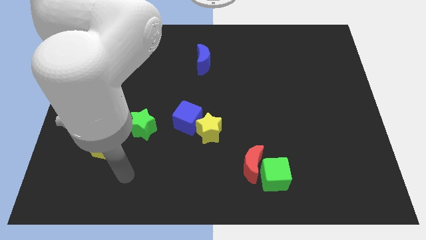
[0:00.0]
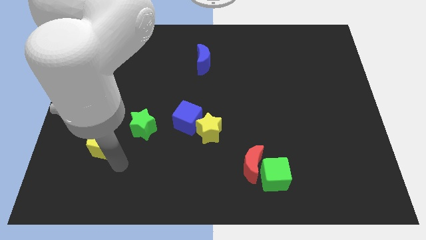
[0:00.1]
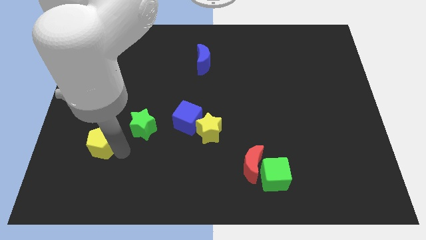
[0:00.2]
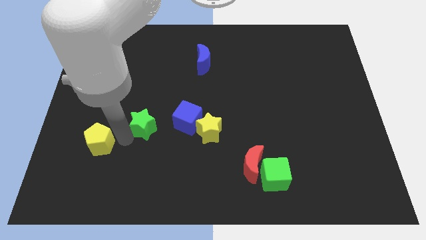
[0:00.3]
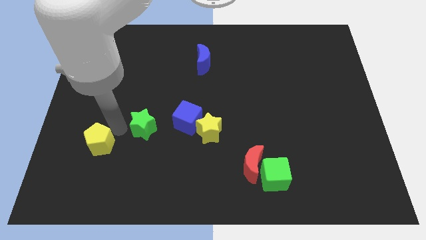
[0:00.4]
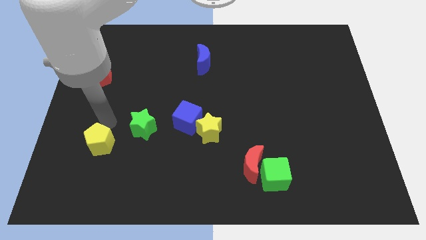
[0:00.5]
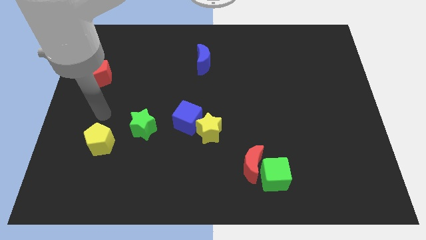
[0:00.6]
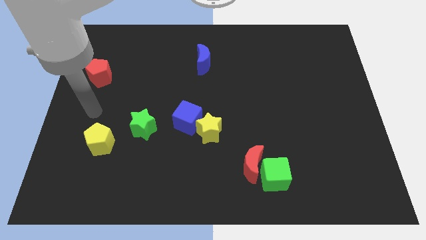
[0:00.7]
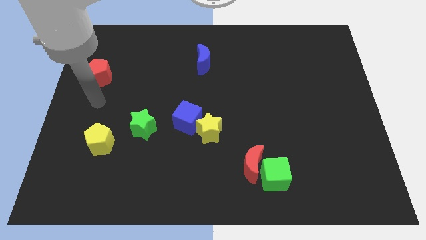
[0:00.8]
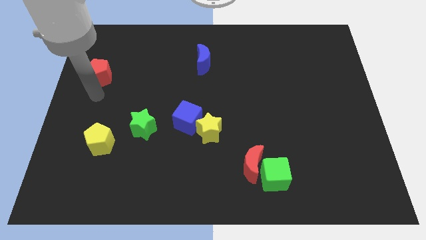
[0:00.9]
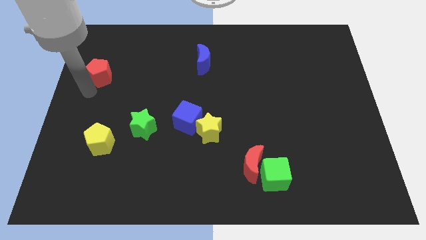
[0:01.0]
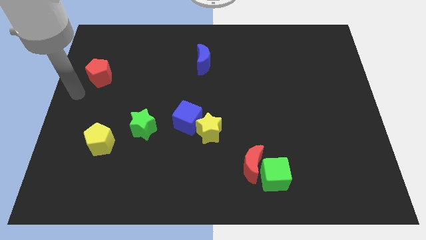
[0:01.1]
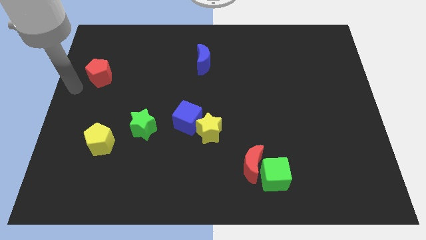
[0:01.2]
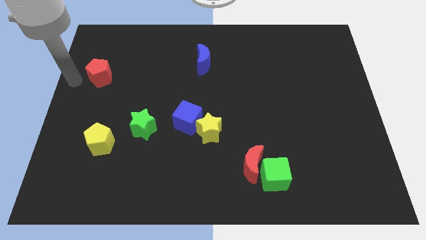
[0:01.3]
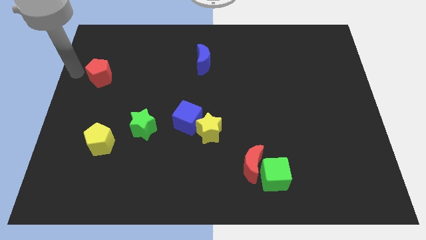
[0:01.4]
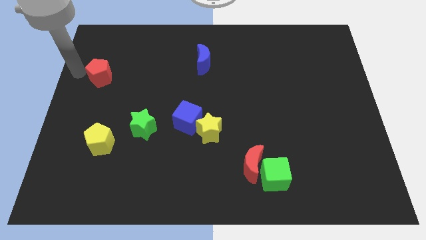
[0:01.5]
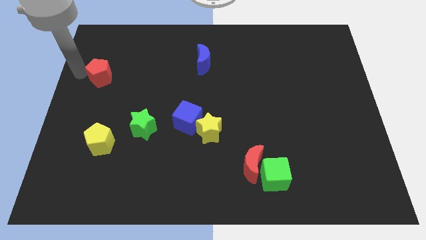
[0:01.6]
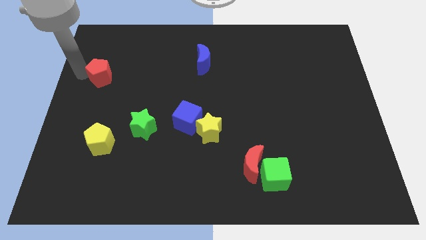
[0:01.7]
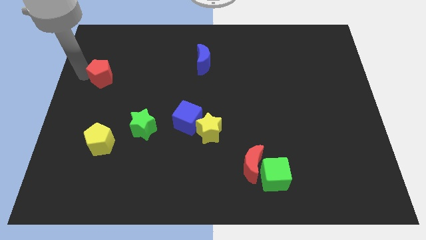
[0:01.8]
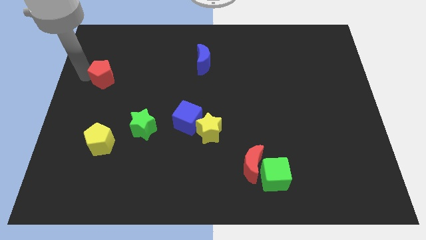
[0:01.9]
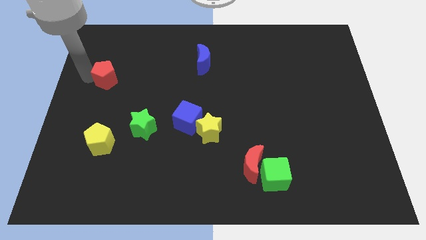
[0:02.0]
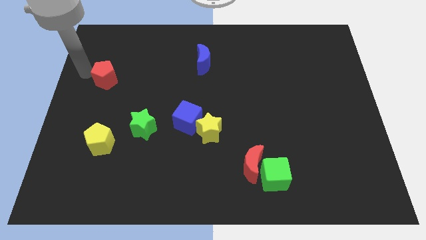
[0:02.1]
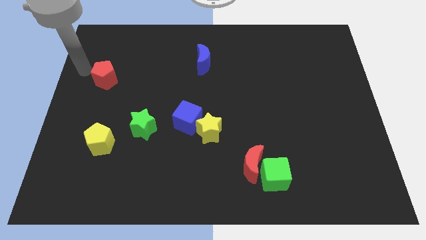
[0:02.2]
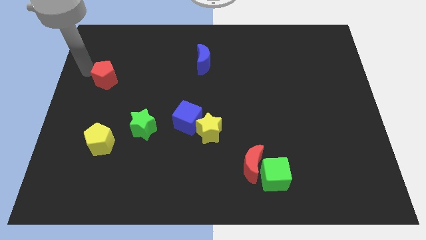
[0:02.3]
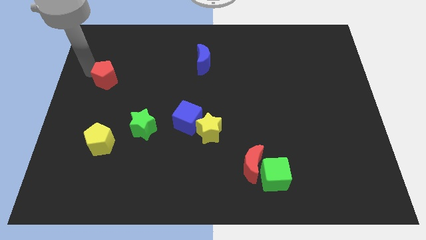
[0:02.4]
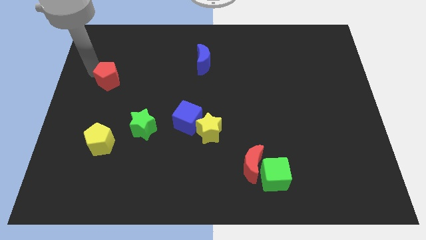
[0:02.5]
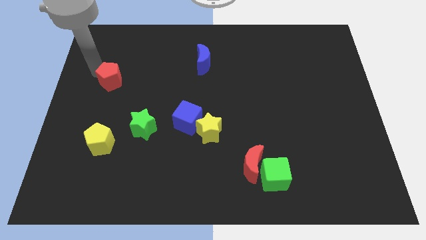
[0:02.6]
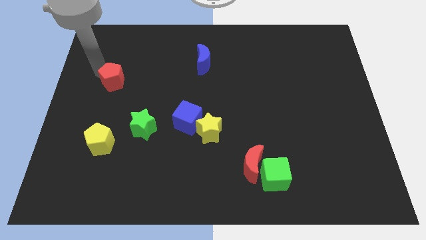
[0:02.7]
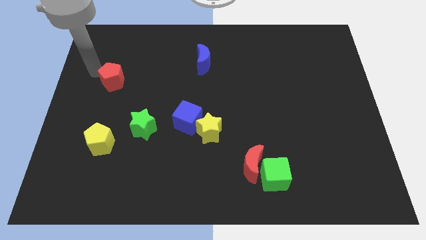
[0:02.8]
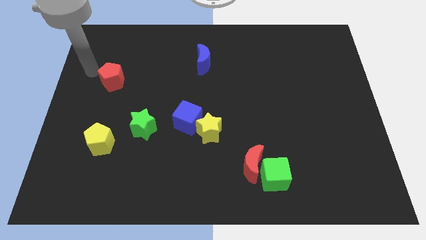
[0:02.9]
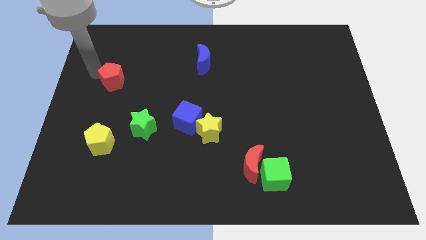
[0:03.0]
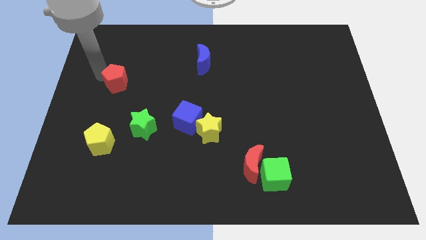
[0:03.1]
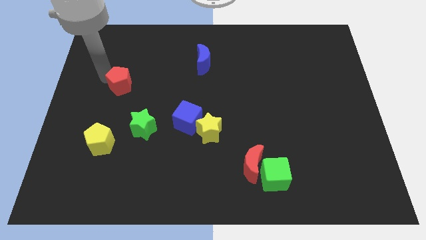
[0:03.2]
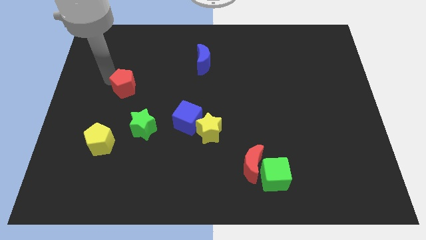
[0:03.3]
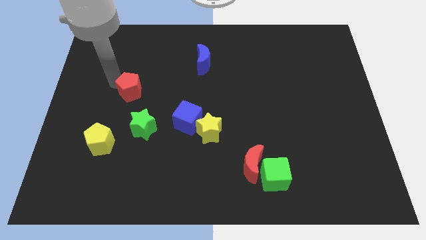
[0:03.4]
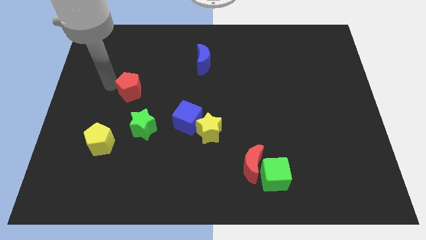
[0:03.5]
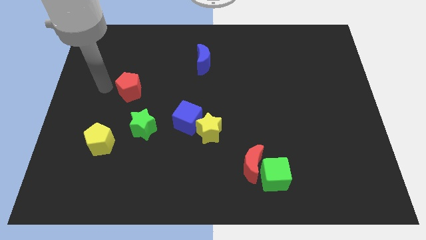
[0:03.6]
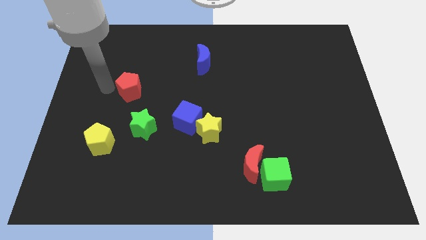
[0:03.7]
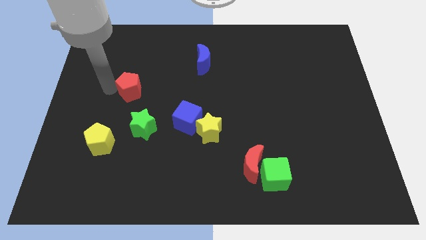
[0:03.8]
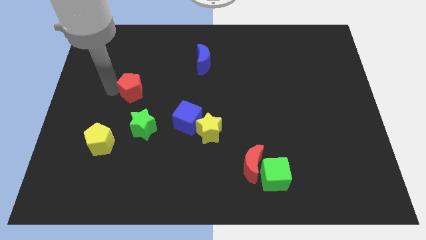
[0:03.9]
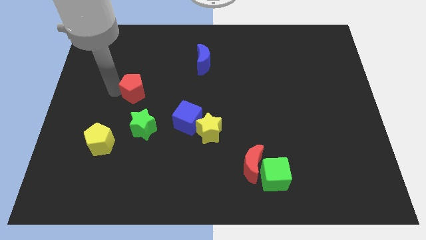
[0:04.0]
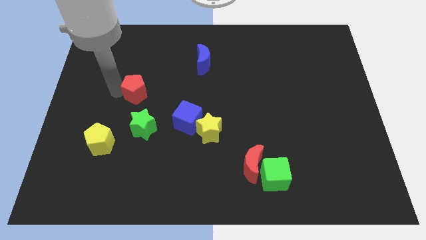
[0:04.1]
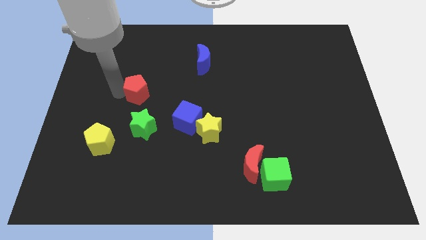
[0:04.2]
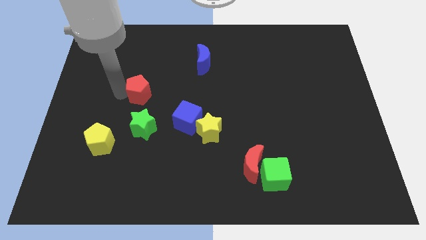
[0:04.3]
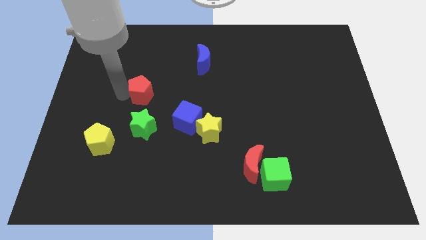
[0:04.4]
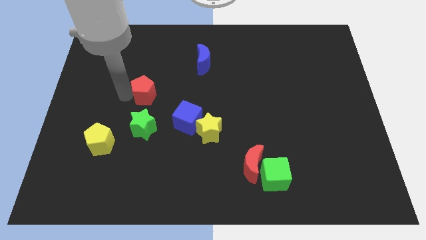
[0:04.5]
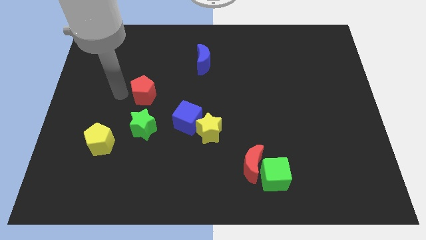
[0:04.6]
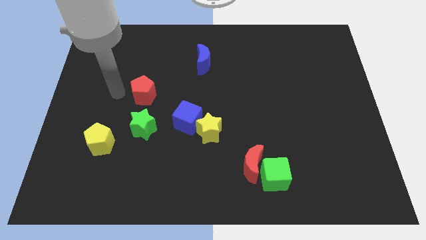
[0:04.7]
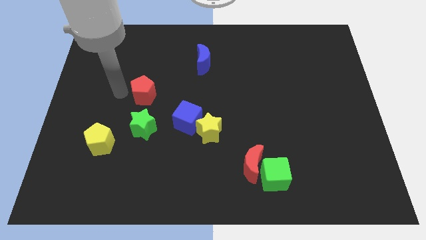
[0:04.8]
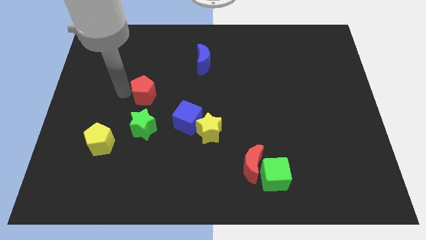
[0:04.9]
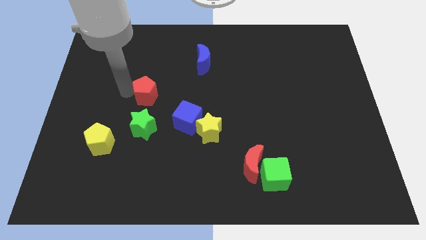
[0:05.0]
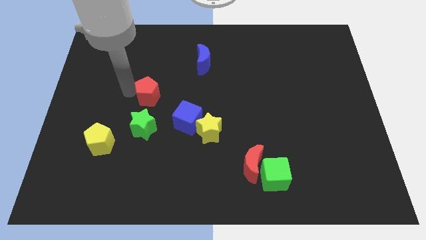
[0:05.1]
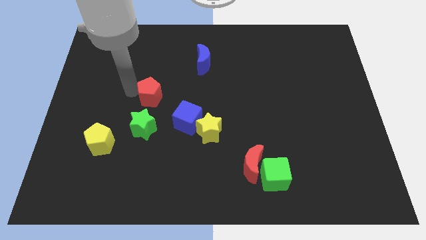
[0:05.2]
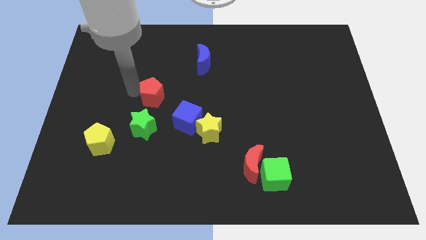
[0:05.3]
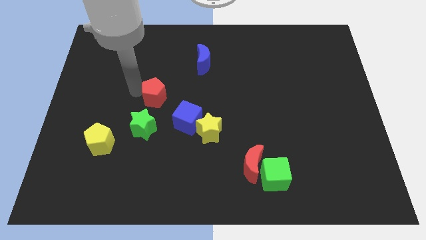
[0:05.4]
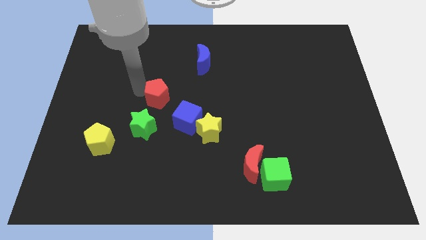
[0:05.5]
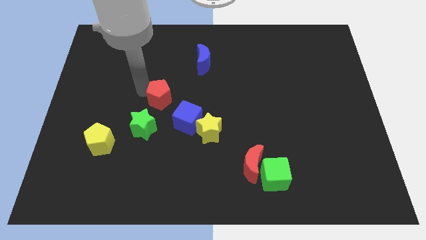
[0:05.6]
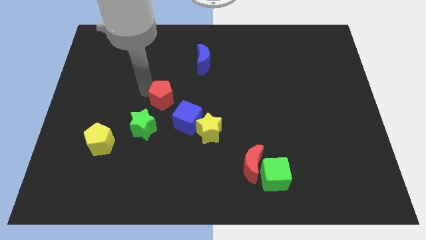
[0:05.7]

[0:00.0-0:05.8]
push the red pentagon to the center
